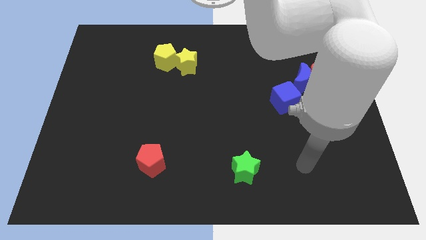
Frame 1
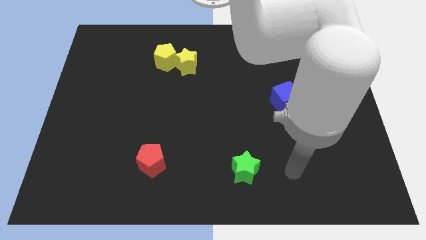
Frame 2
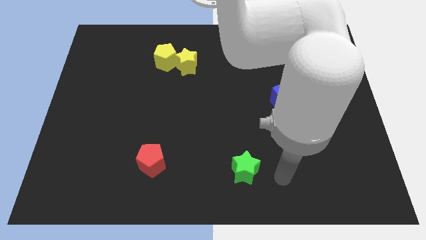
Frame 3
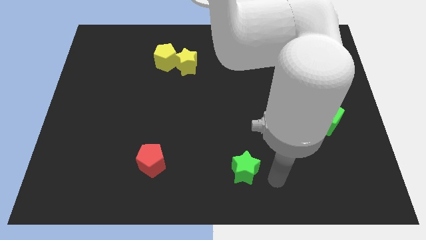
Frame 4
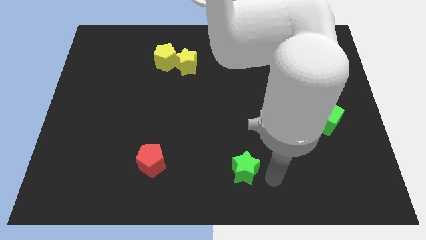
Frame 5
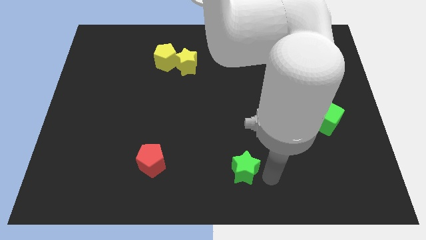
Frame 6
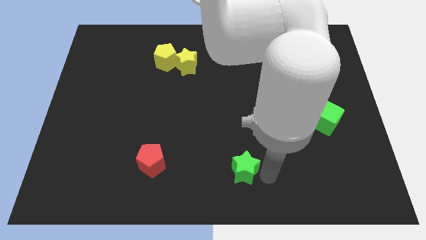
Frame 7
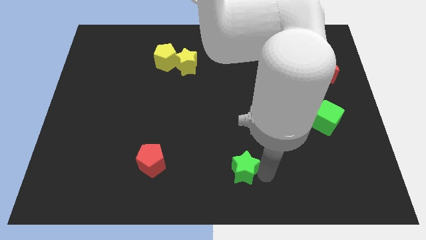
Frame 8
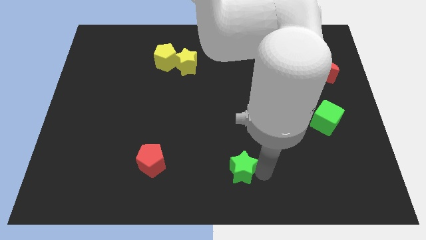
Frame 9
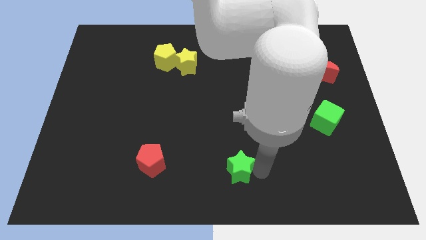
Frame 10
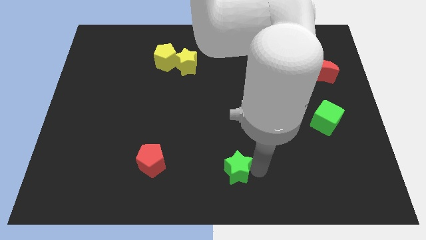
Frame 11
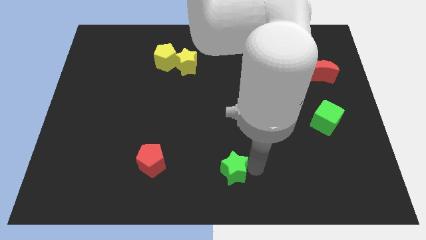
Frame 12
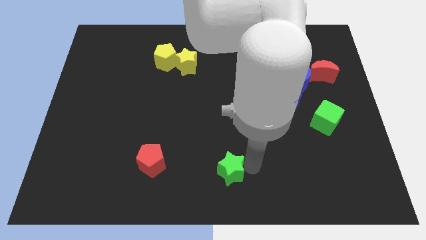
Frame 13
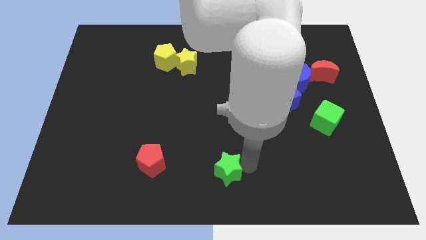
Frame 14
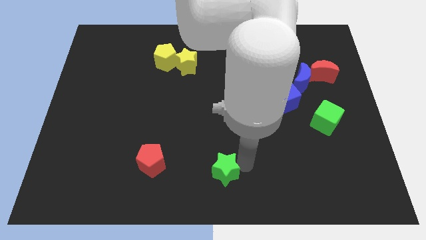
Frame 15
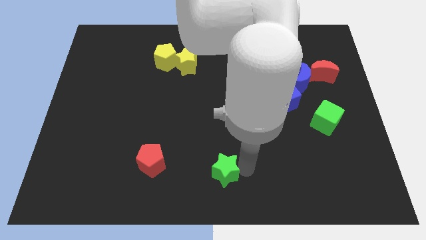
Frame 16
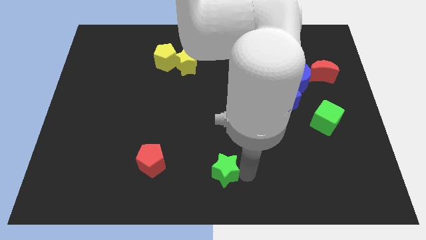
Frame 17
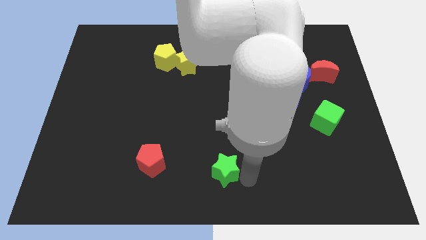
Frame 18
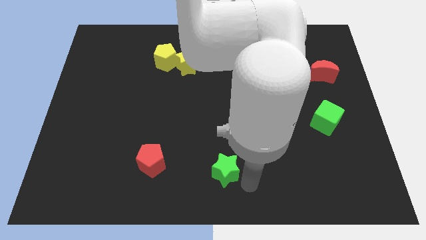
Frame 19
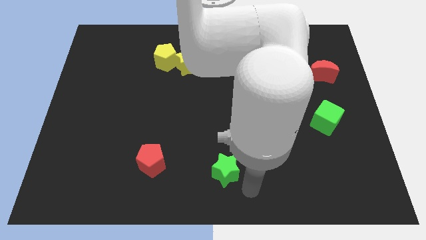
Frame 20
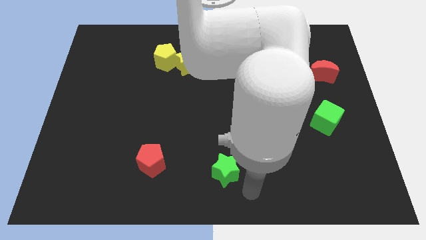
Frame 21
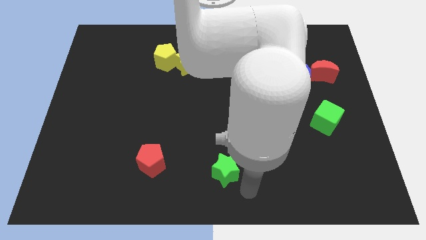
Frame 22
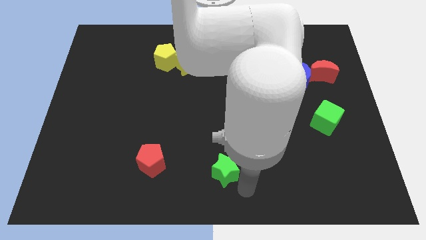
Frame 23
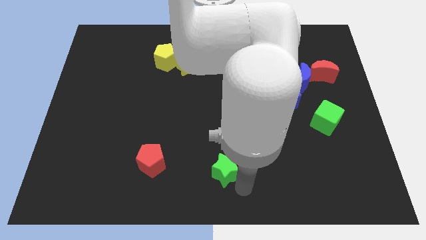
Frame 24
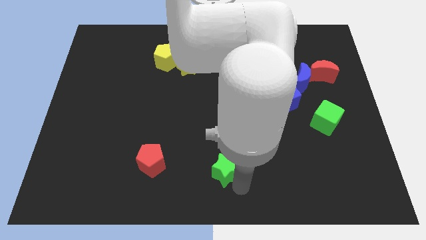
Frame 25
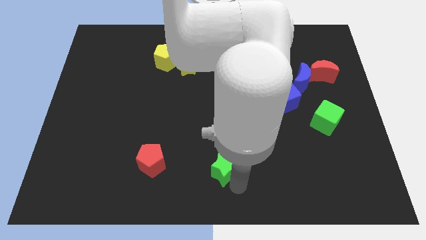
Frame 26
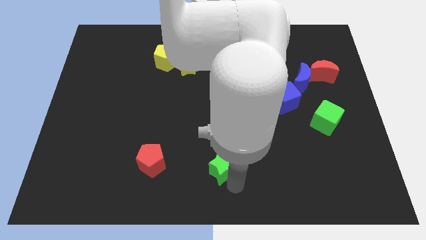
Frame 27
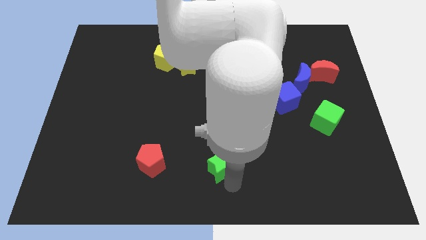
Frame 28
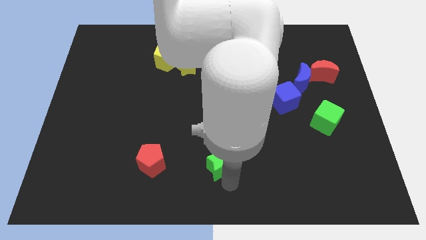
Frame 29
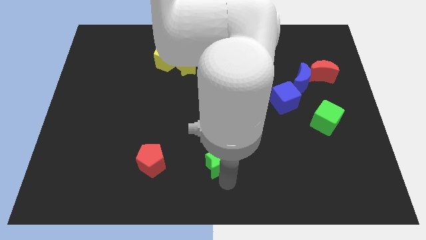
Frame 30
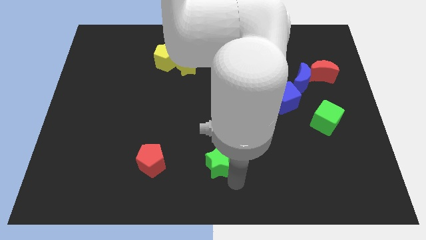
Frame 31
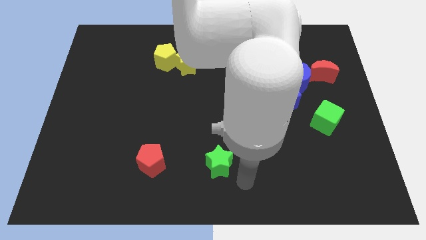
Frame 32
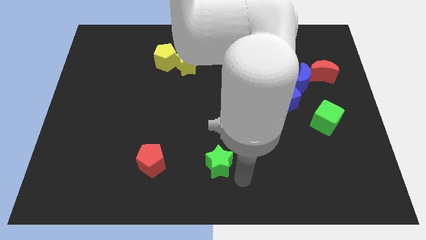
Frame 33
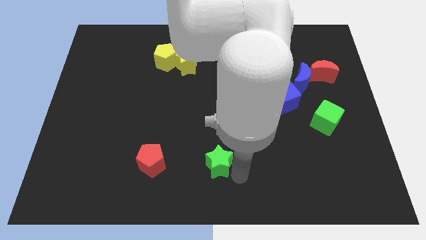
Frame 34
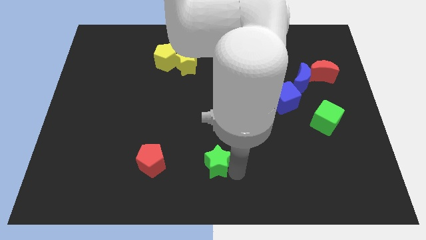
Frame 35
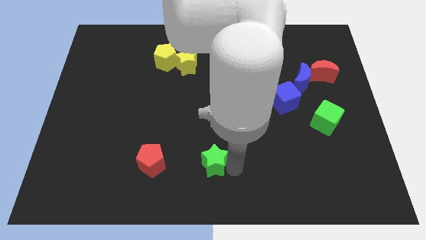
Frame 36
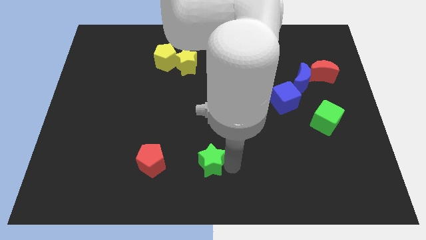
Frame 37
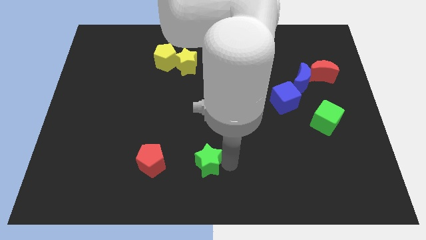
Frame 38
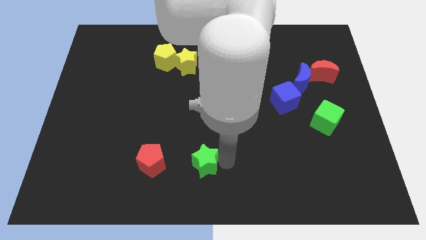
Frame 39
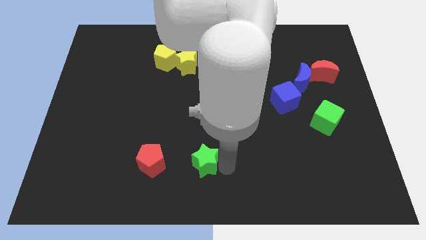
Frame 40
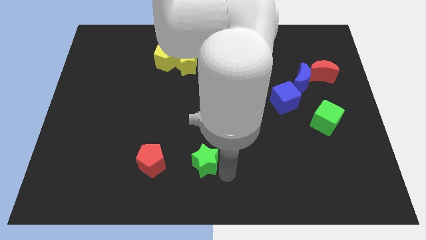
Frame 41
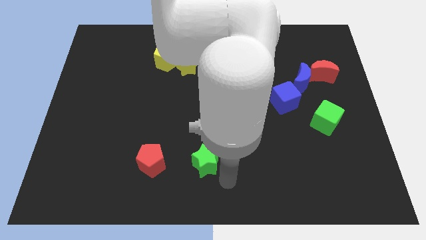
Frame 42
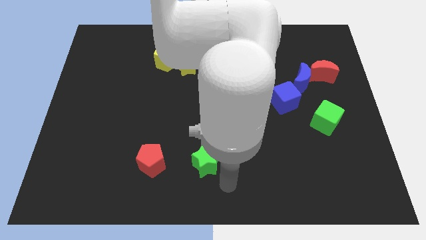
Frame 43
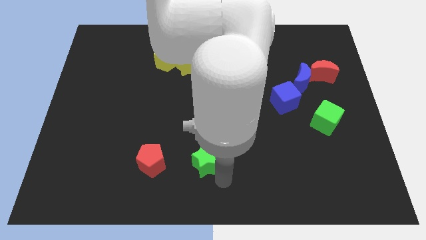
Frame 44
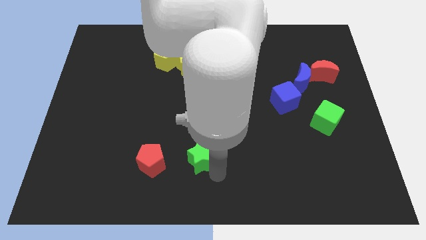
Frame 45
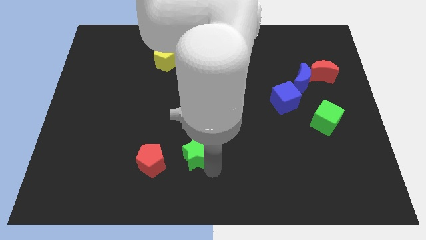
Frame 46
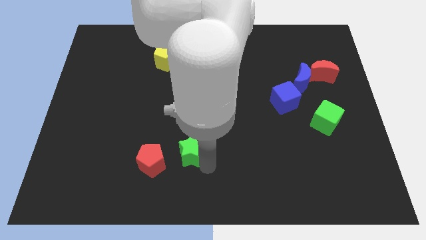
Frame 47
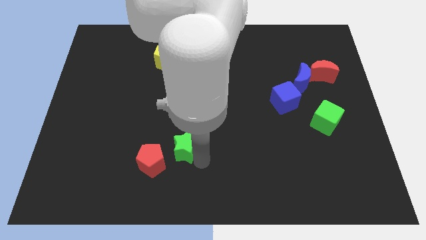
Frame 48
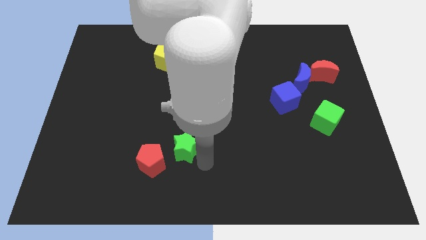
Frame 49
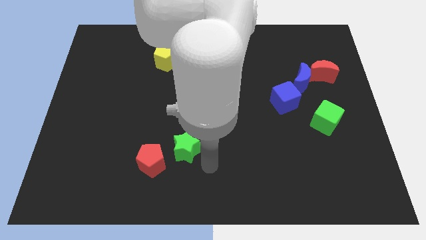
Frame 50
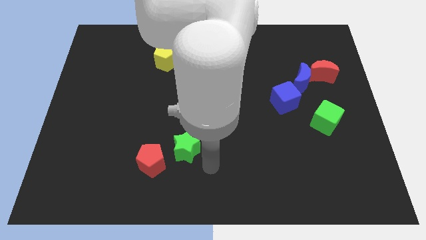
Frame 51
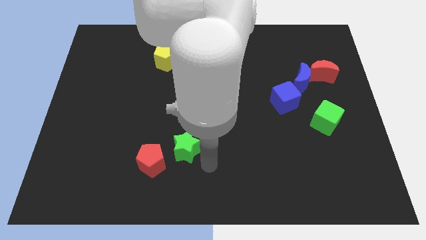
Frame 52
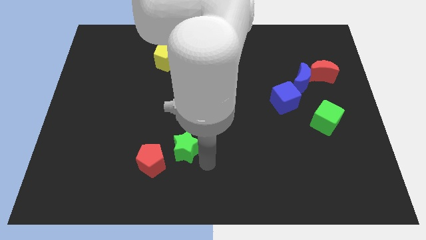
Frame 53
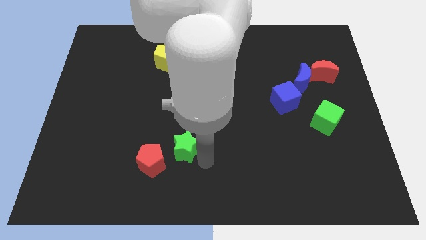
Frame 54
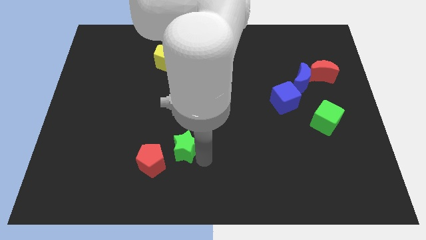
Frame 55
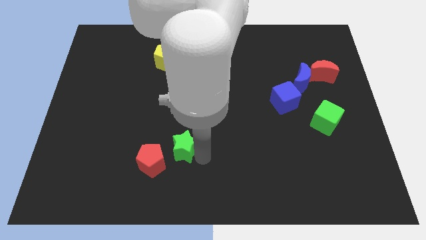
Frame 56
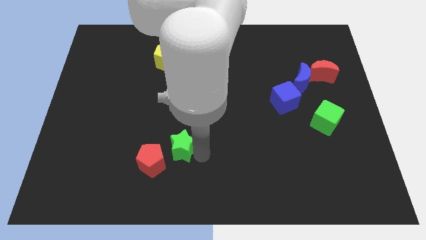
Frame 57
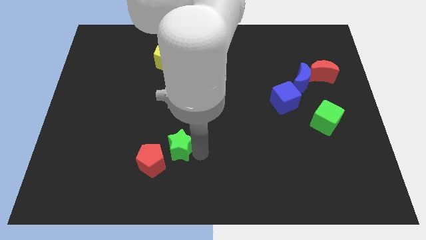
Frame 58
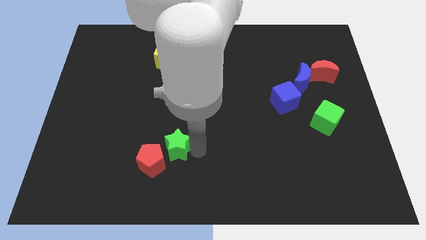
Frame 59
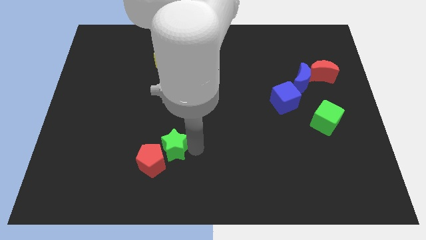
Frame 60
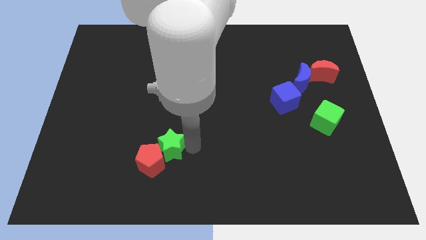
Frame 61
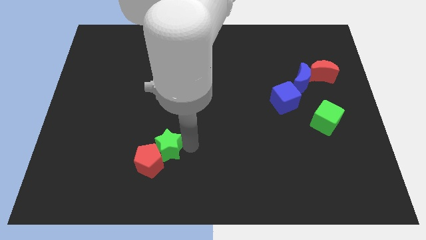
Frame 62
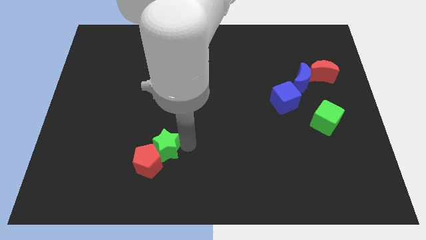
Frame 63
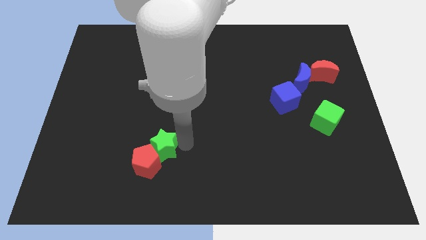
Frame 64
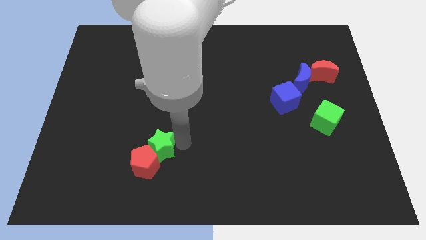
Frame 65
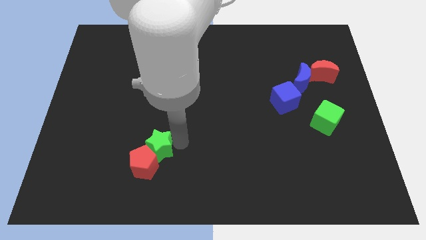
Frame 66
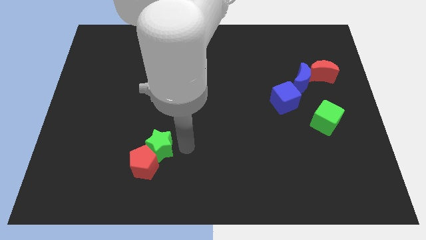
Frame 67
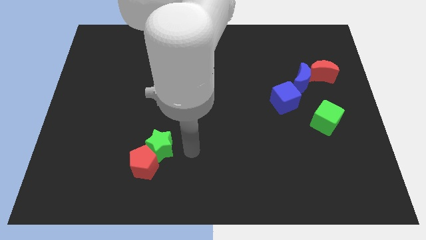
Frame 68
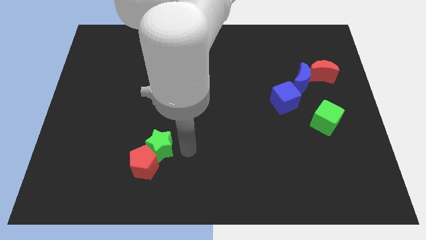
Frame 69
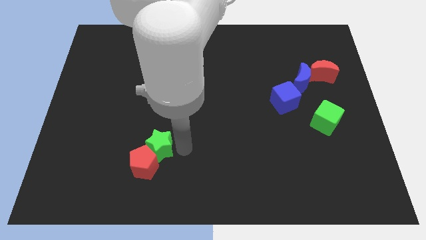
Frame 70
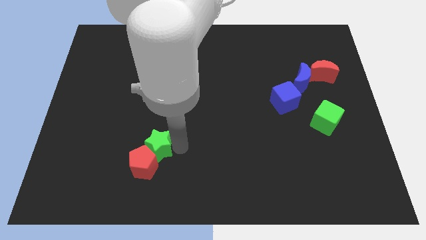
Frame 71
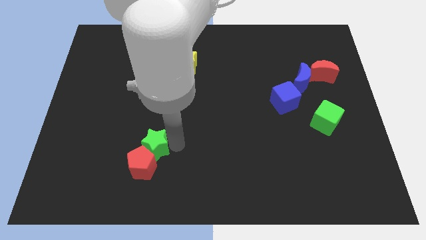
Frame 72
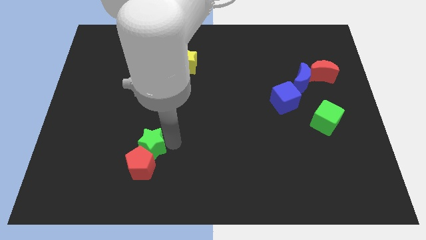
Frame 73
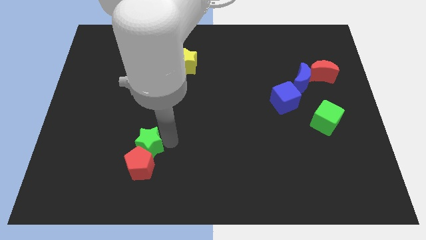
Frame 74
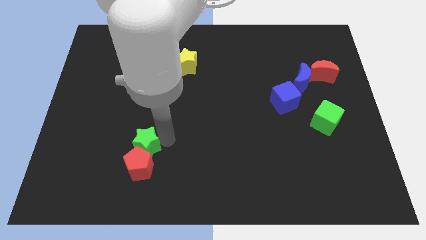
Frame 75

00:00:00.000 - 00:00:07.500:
push the green star to the top left of the red pentagon
